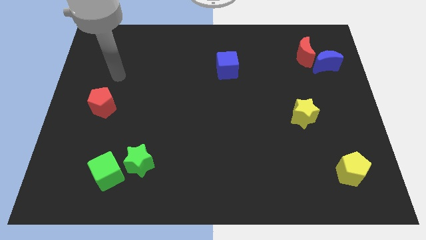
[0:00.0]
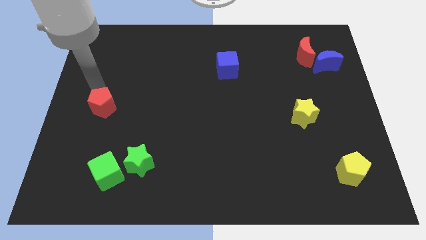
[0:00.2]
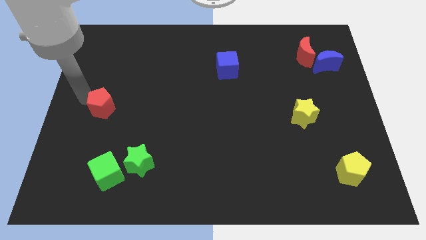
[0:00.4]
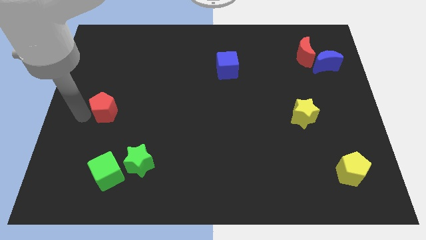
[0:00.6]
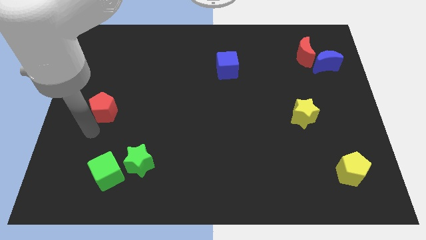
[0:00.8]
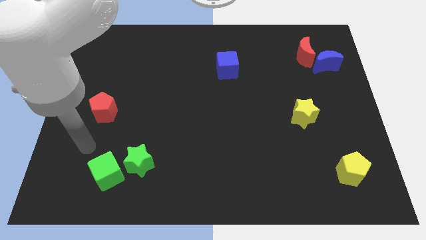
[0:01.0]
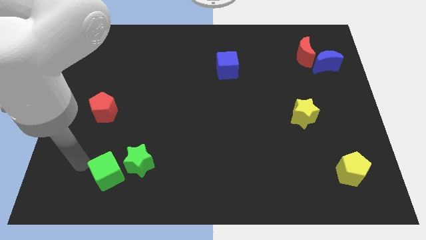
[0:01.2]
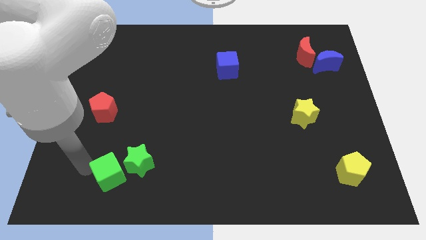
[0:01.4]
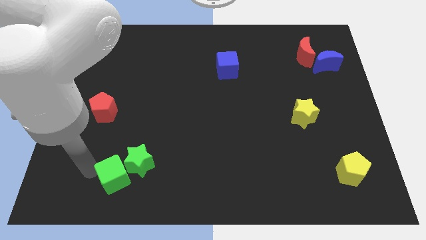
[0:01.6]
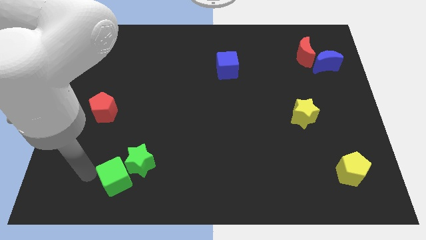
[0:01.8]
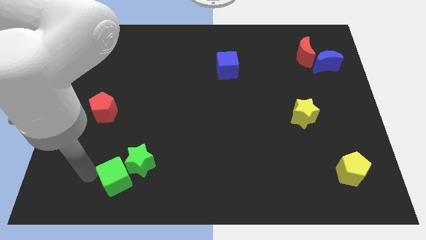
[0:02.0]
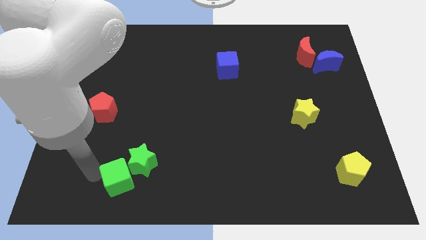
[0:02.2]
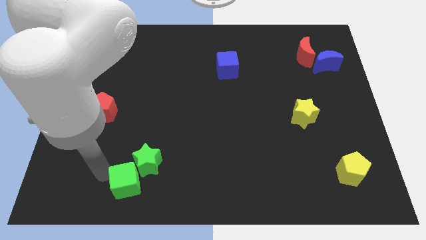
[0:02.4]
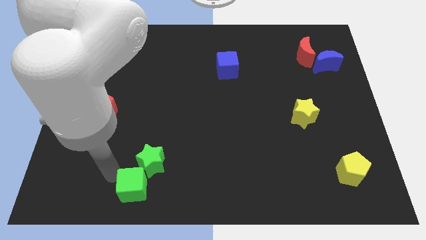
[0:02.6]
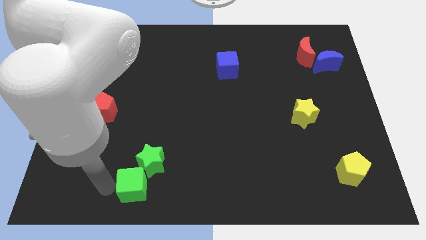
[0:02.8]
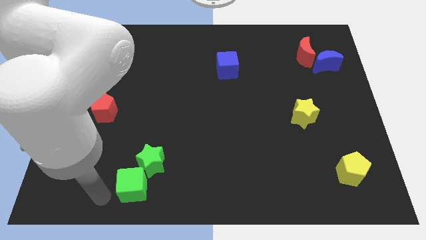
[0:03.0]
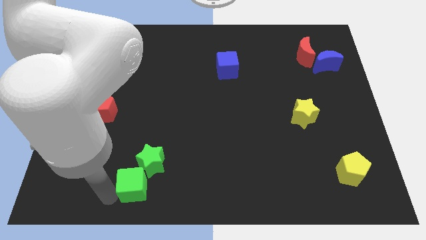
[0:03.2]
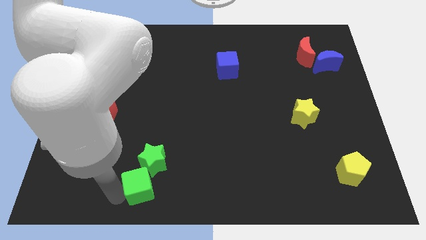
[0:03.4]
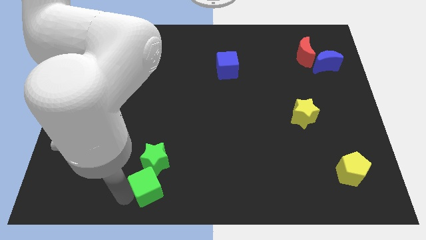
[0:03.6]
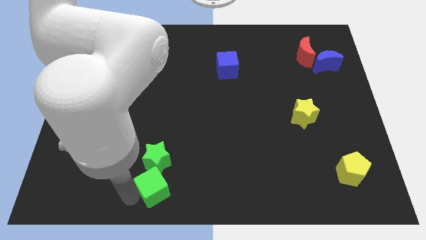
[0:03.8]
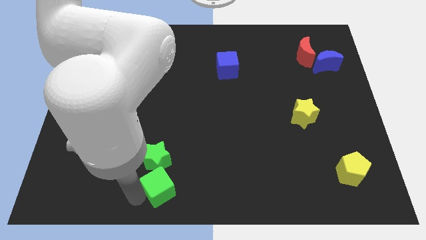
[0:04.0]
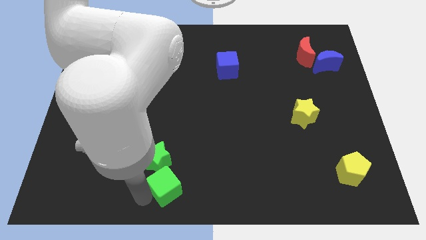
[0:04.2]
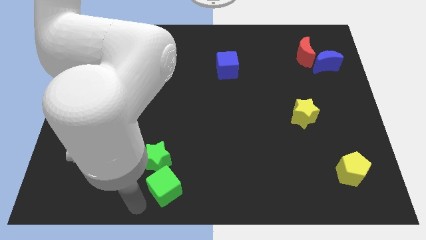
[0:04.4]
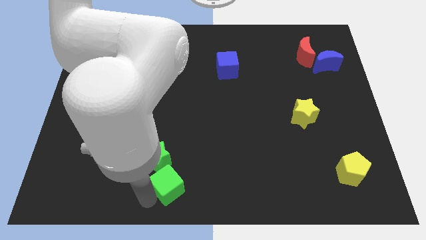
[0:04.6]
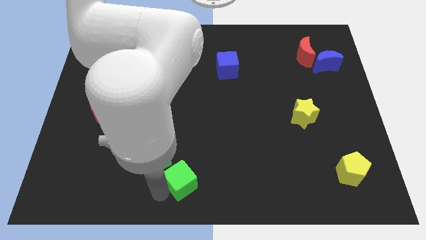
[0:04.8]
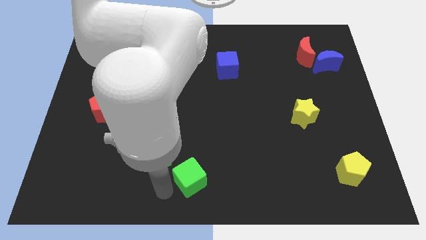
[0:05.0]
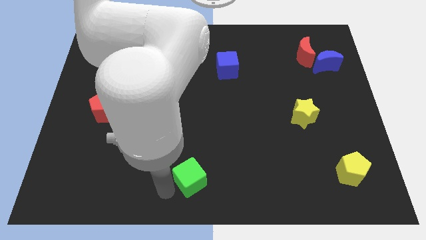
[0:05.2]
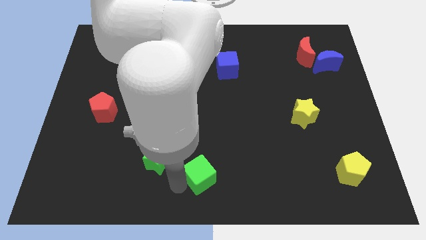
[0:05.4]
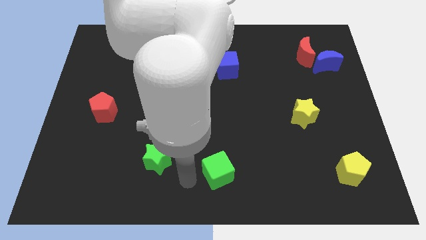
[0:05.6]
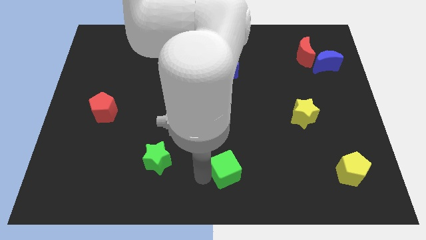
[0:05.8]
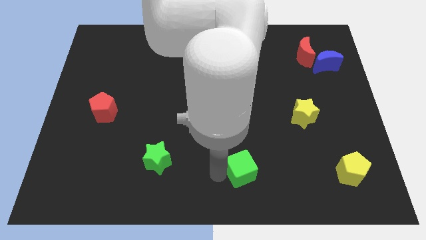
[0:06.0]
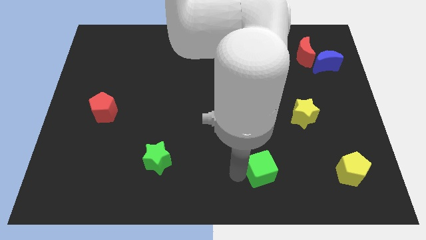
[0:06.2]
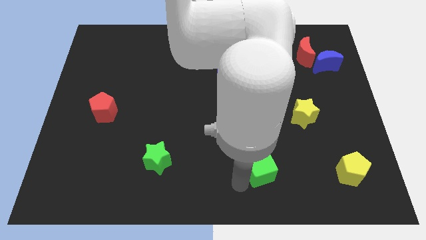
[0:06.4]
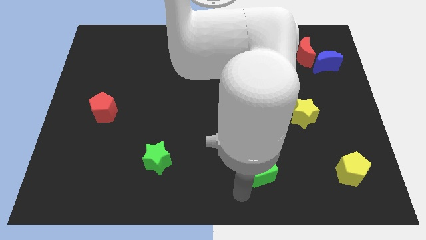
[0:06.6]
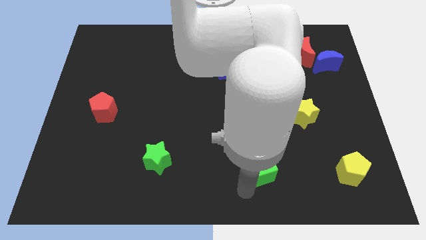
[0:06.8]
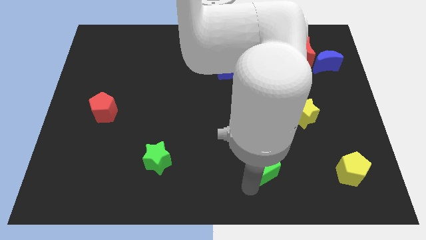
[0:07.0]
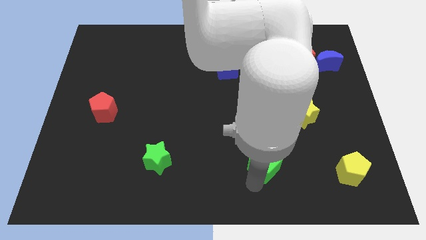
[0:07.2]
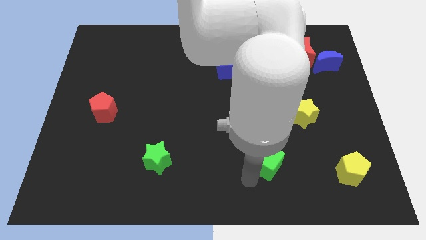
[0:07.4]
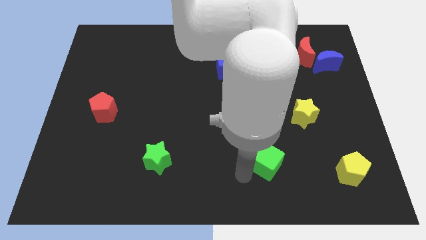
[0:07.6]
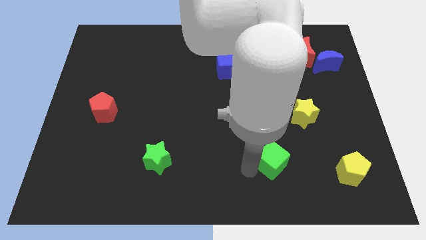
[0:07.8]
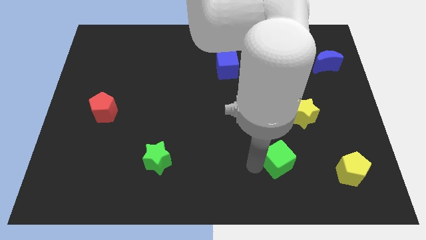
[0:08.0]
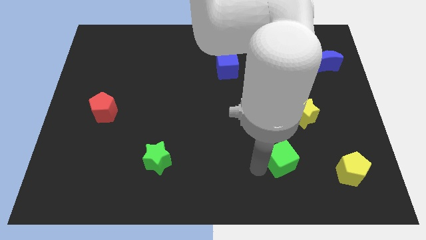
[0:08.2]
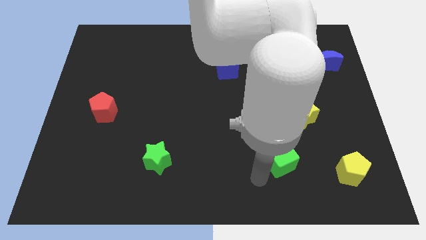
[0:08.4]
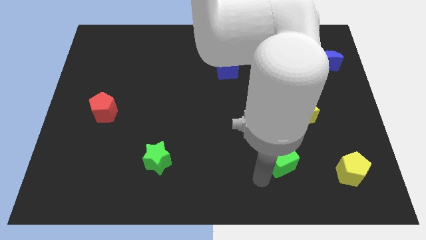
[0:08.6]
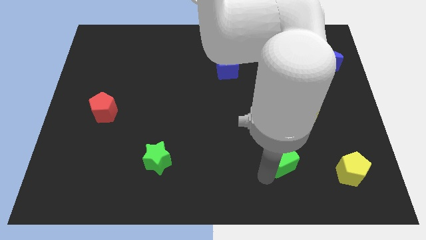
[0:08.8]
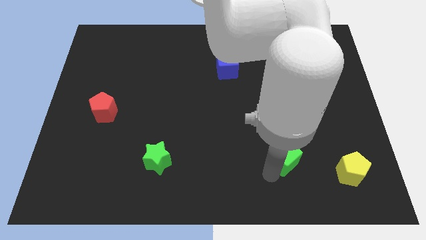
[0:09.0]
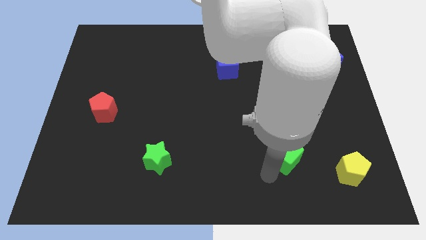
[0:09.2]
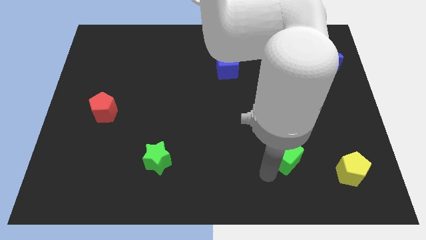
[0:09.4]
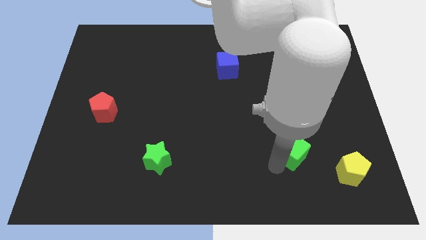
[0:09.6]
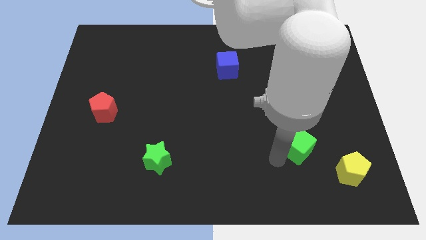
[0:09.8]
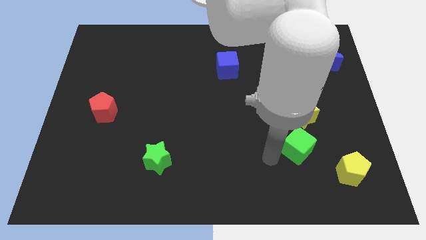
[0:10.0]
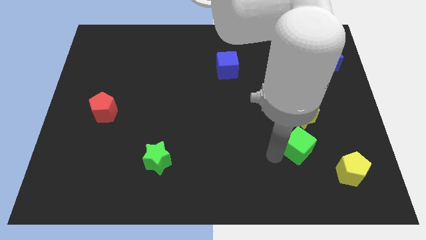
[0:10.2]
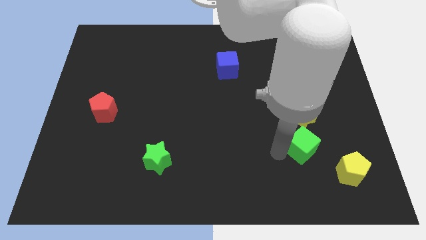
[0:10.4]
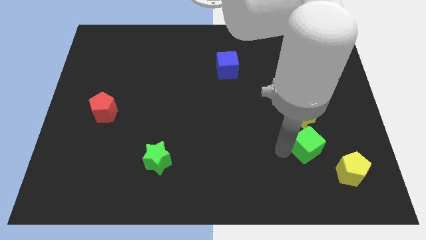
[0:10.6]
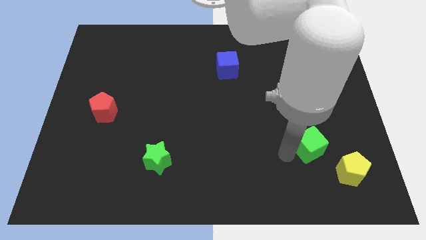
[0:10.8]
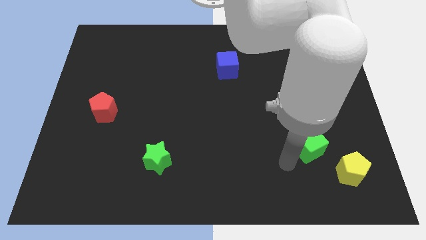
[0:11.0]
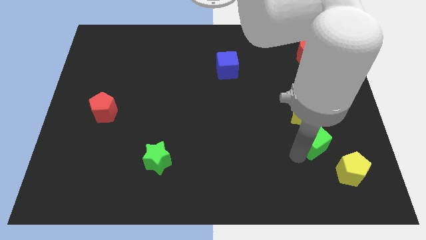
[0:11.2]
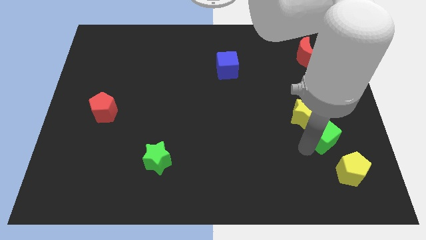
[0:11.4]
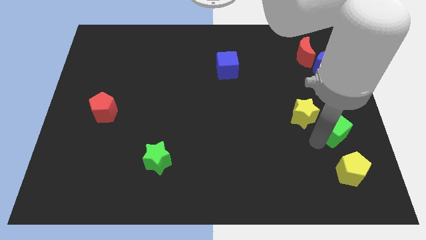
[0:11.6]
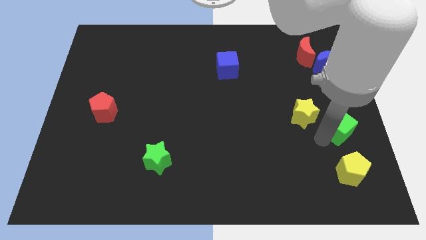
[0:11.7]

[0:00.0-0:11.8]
move the green cube to the right side of the board
